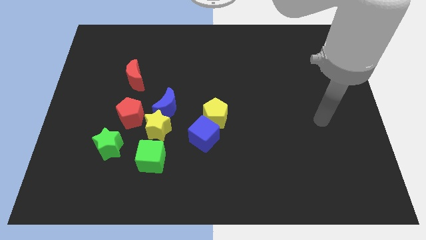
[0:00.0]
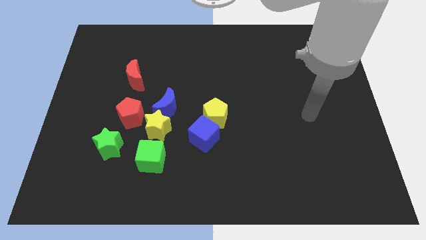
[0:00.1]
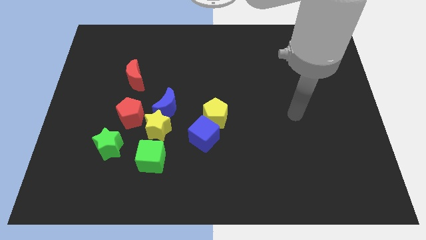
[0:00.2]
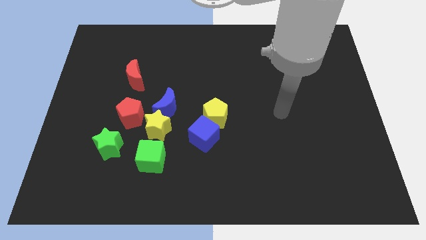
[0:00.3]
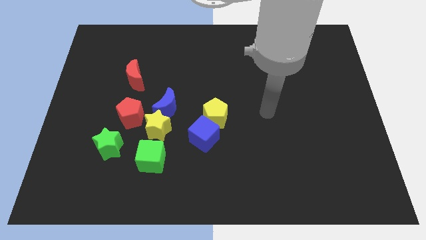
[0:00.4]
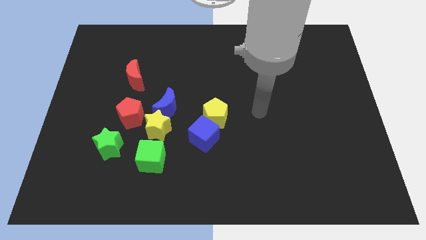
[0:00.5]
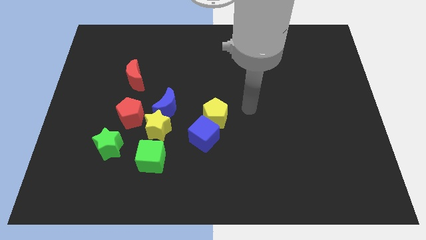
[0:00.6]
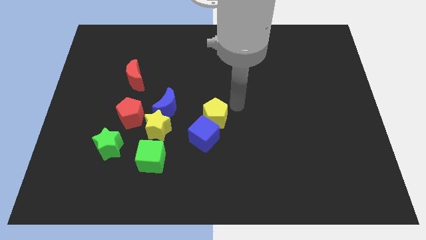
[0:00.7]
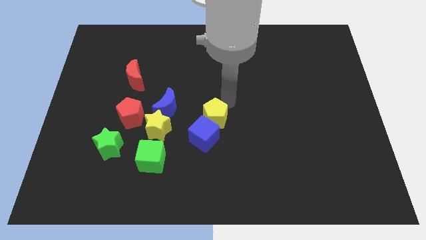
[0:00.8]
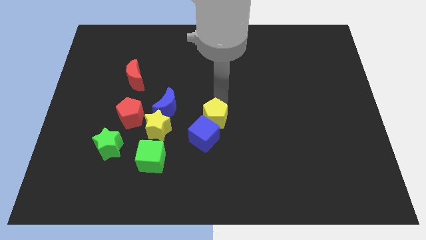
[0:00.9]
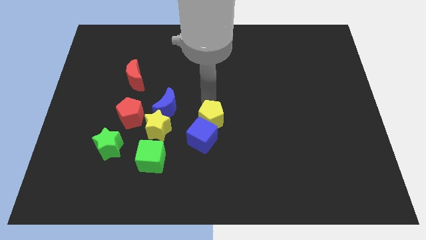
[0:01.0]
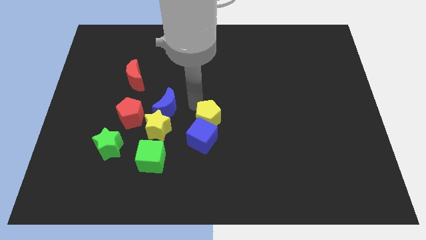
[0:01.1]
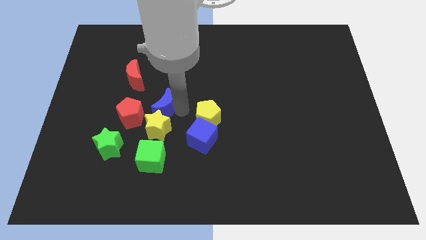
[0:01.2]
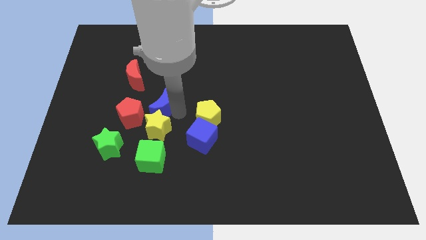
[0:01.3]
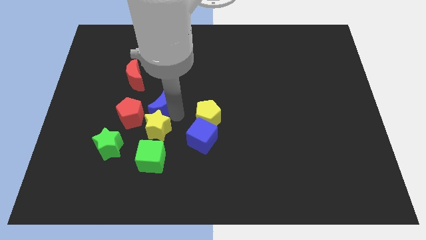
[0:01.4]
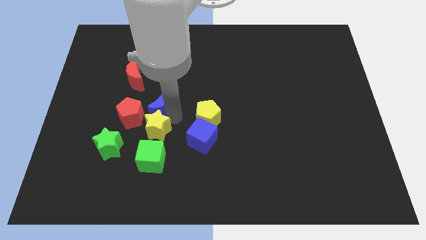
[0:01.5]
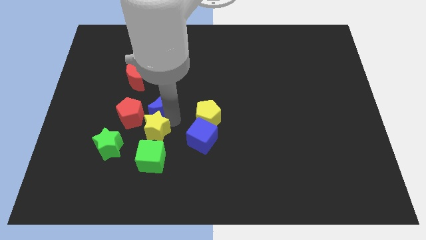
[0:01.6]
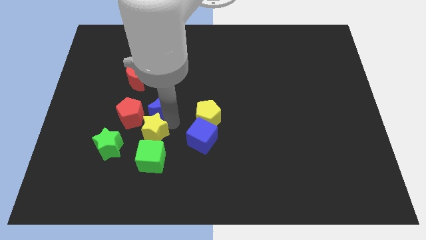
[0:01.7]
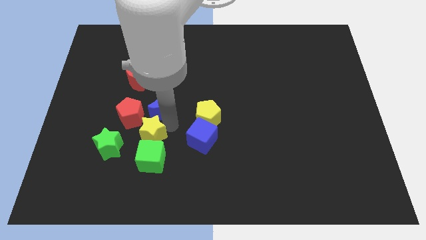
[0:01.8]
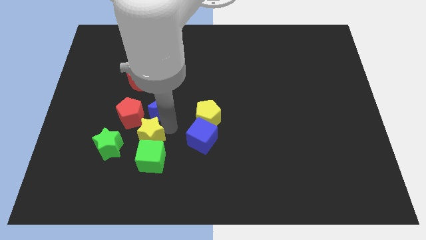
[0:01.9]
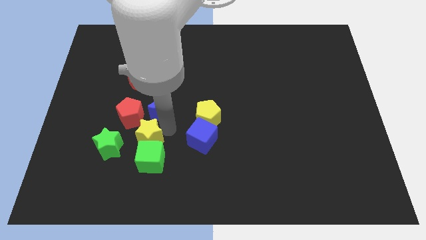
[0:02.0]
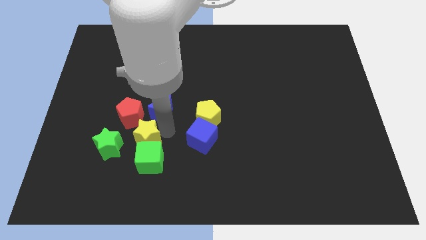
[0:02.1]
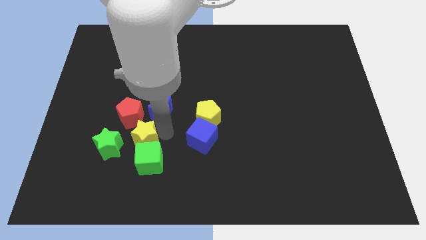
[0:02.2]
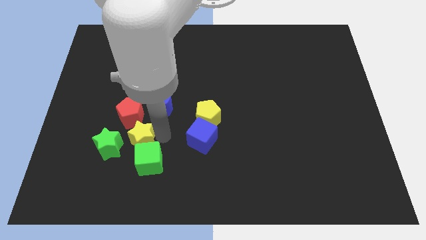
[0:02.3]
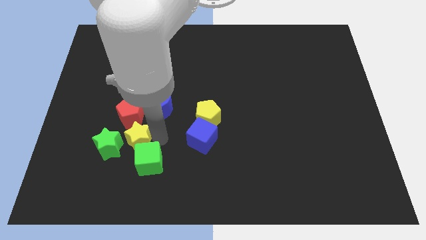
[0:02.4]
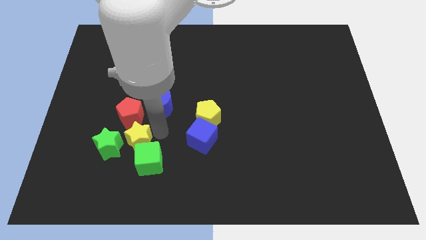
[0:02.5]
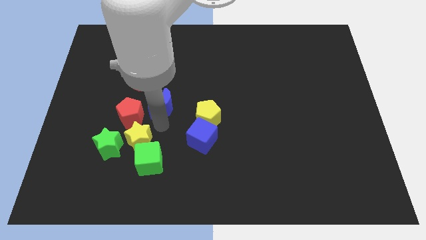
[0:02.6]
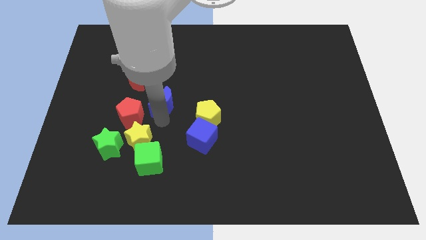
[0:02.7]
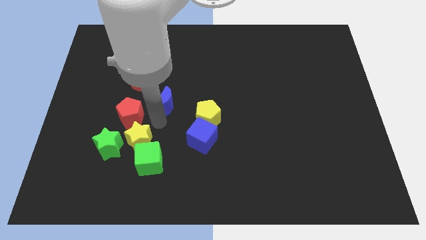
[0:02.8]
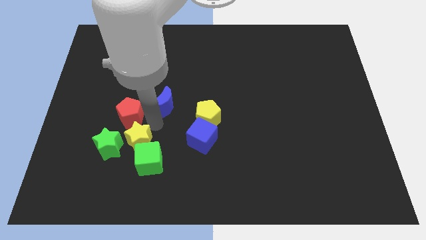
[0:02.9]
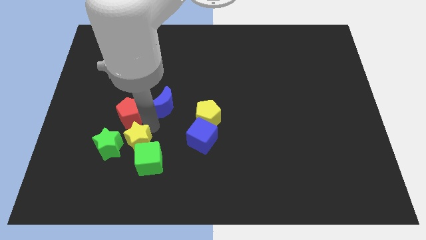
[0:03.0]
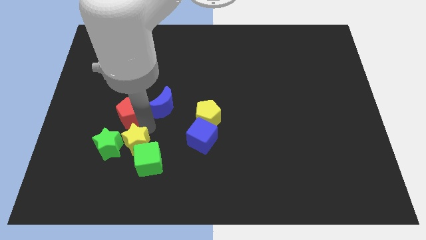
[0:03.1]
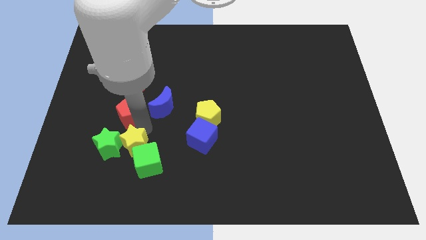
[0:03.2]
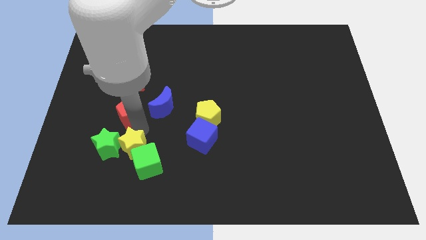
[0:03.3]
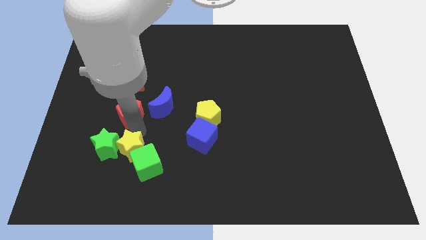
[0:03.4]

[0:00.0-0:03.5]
move the yellow star downwards and then left a little

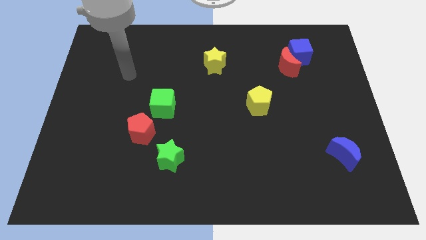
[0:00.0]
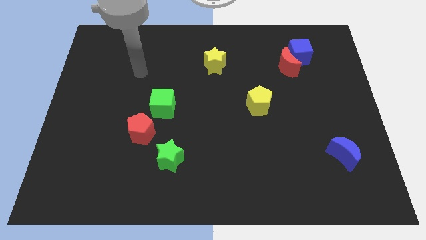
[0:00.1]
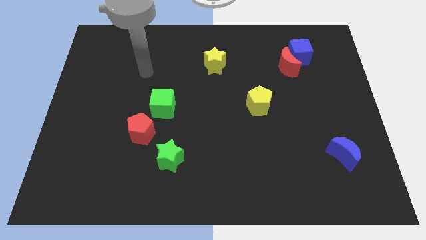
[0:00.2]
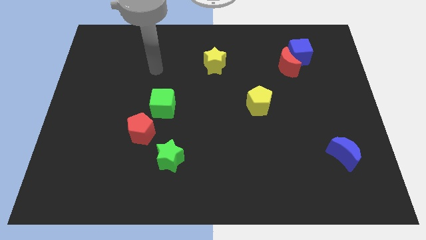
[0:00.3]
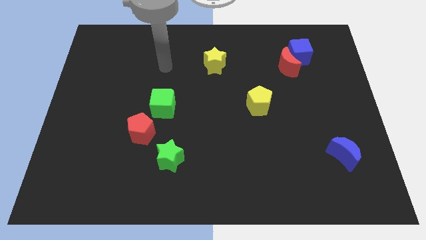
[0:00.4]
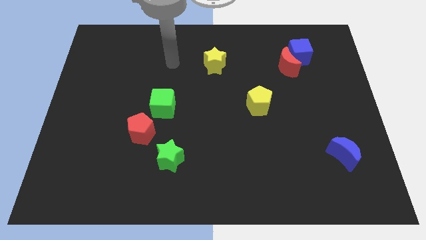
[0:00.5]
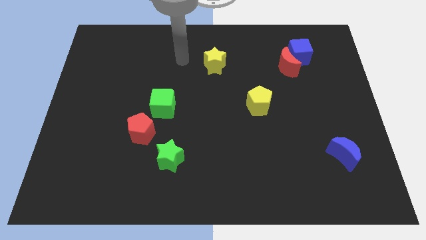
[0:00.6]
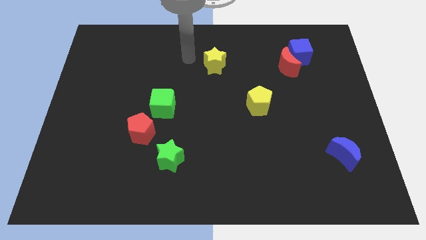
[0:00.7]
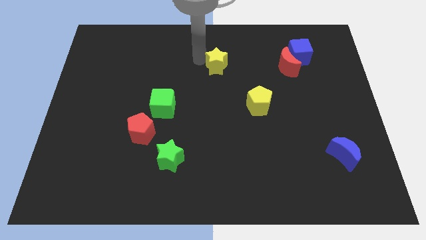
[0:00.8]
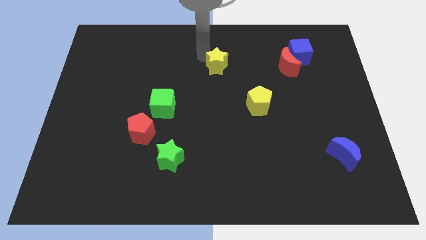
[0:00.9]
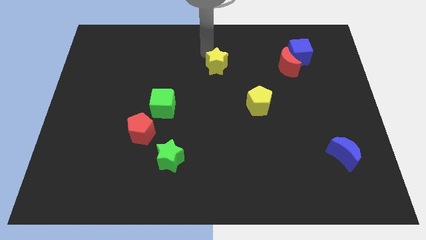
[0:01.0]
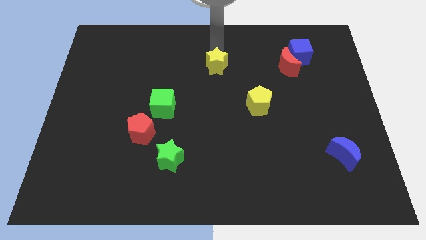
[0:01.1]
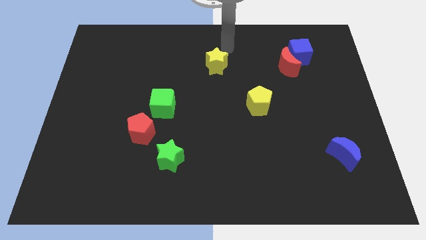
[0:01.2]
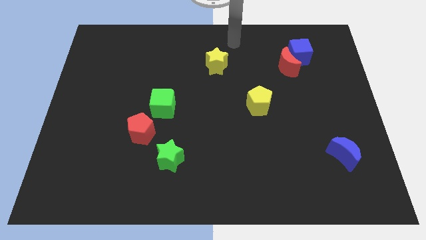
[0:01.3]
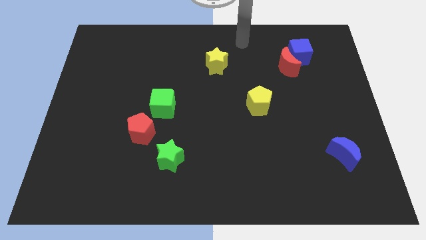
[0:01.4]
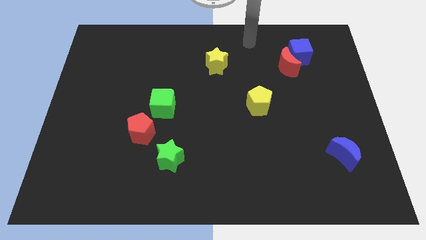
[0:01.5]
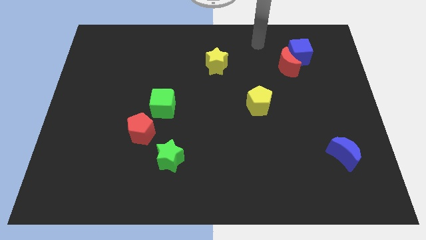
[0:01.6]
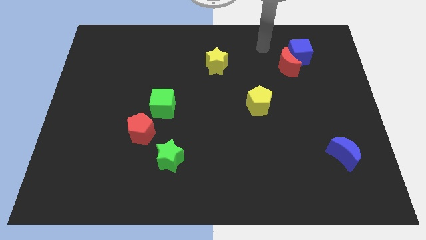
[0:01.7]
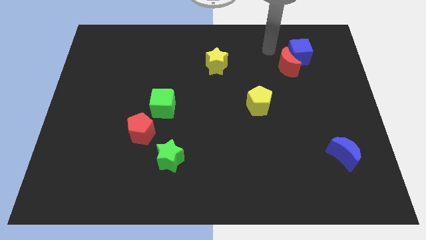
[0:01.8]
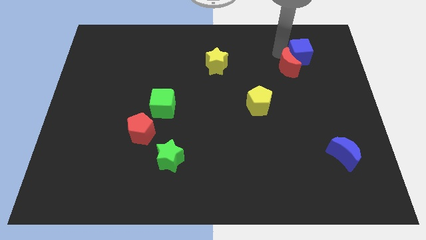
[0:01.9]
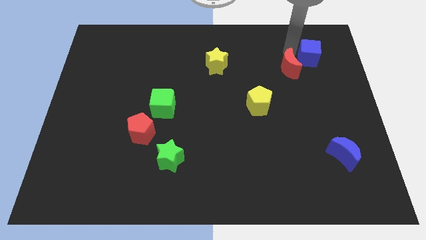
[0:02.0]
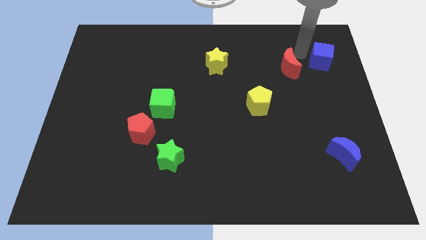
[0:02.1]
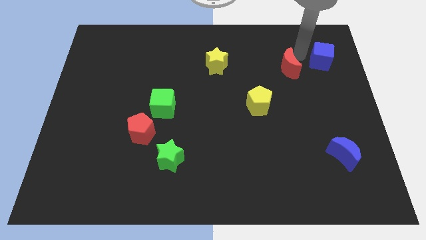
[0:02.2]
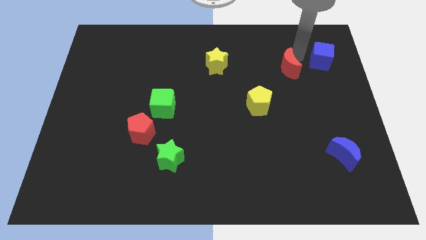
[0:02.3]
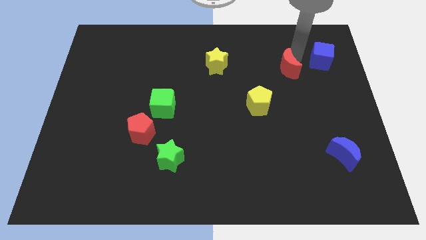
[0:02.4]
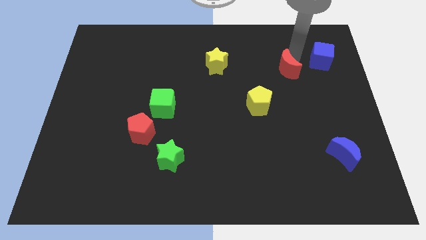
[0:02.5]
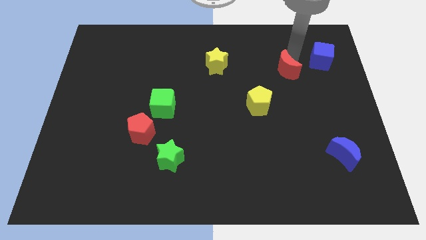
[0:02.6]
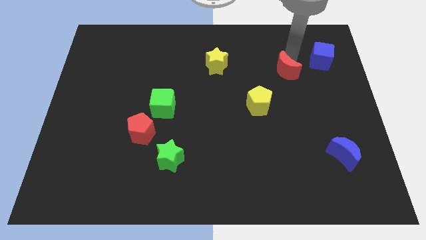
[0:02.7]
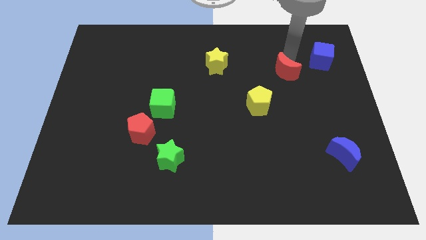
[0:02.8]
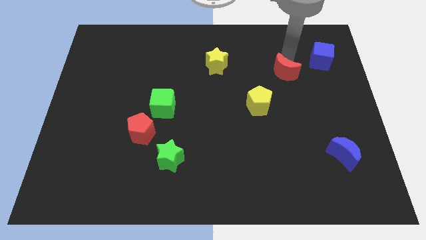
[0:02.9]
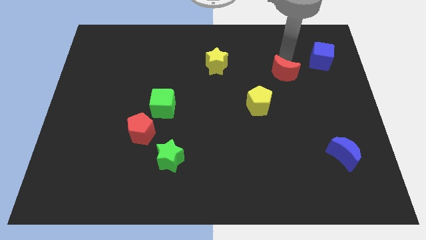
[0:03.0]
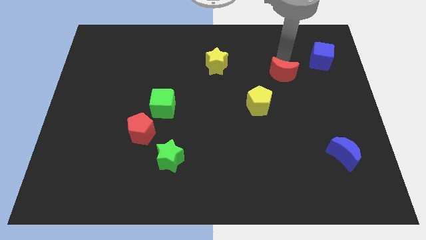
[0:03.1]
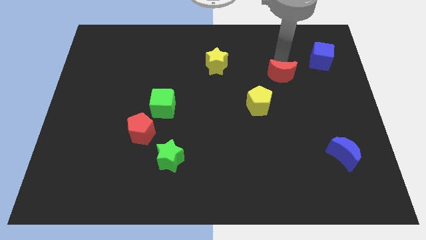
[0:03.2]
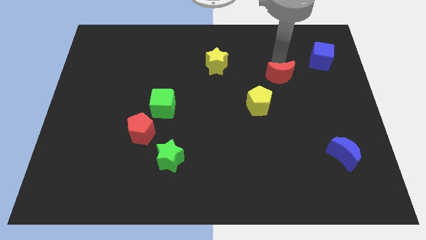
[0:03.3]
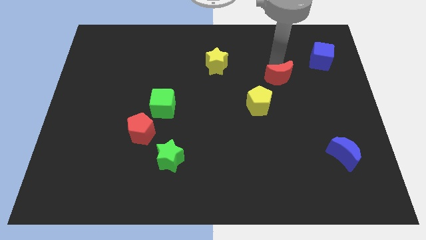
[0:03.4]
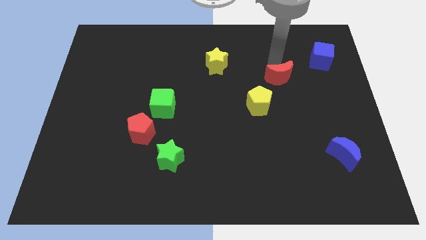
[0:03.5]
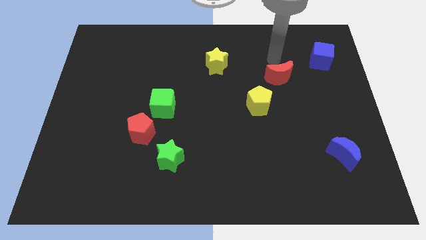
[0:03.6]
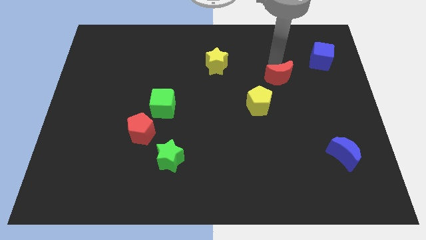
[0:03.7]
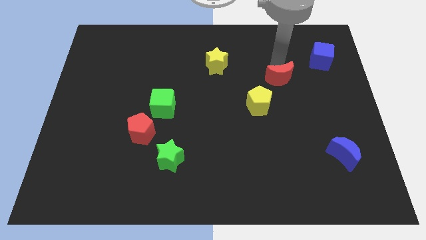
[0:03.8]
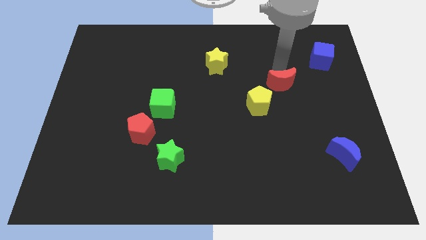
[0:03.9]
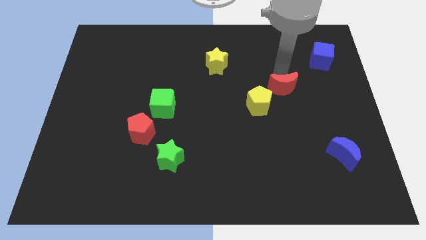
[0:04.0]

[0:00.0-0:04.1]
slightly push the red moon down

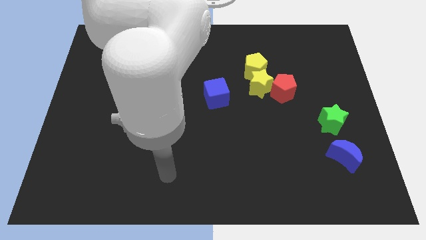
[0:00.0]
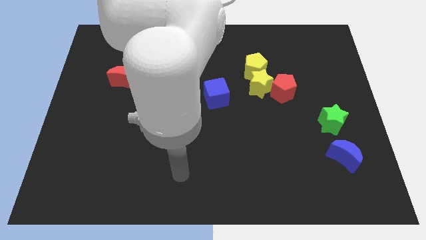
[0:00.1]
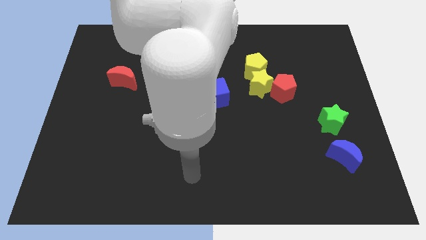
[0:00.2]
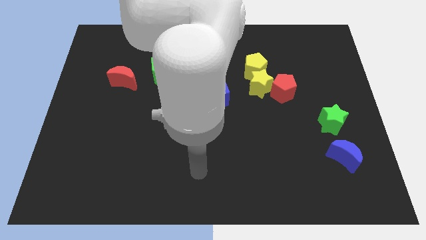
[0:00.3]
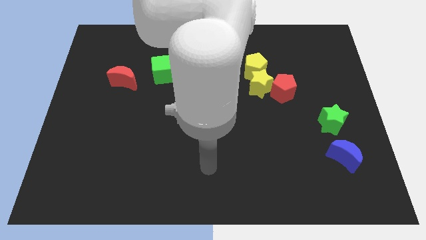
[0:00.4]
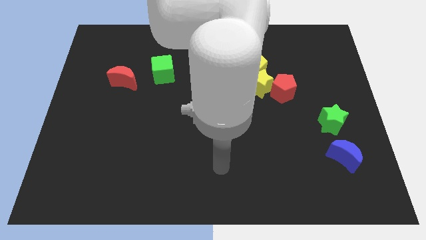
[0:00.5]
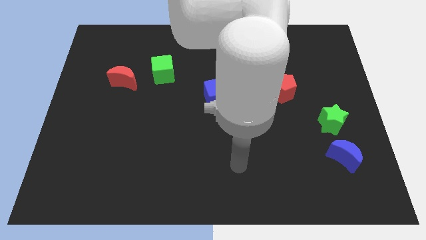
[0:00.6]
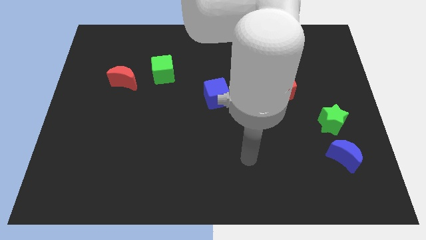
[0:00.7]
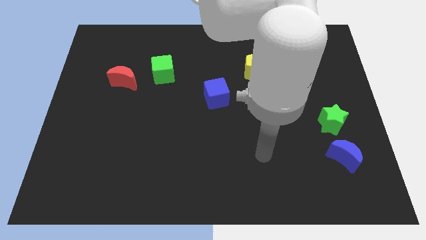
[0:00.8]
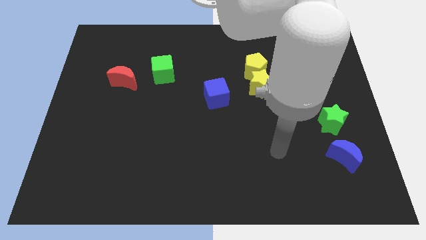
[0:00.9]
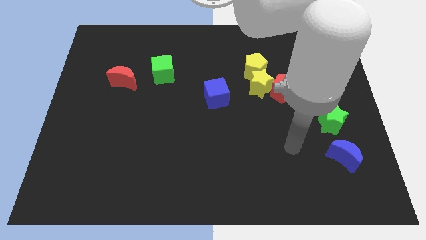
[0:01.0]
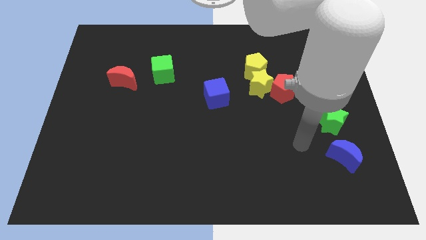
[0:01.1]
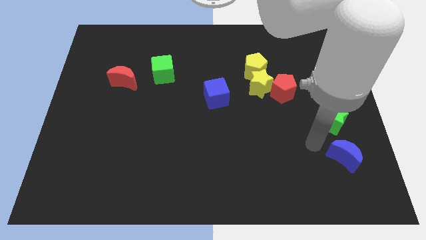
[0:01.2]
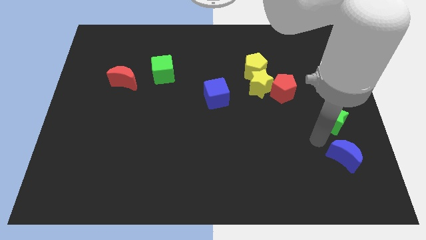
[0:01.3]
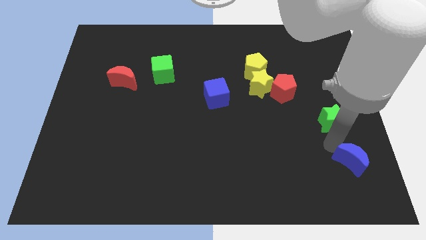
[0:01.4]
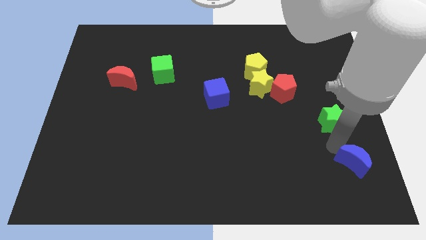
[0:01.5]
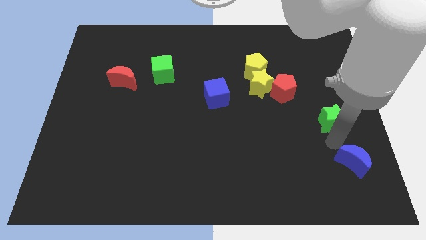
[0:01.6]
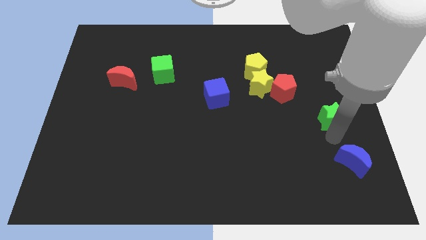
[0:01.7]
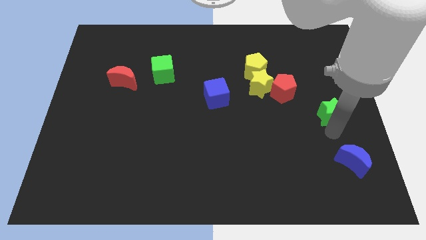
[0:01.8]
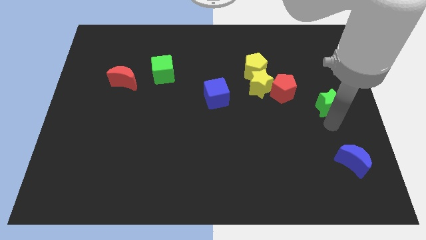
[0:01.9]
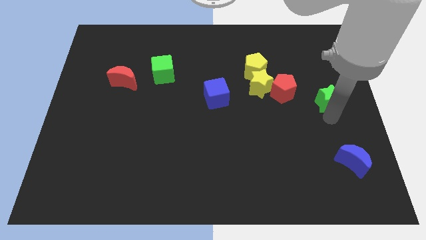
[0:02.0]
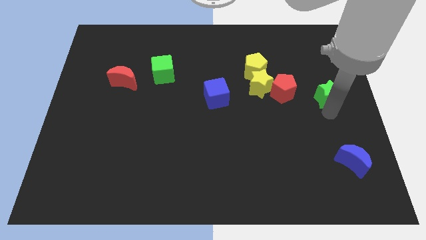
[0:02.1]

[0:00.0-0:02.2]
move the green star upwards a bit
